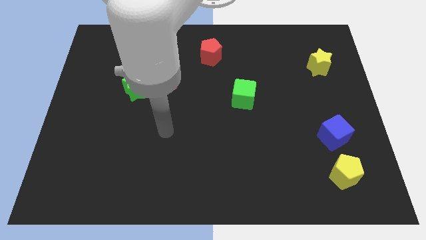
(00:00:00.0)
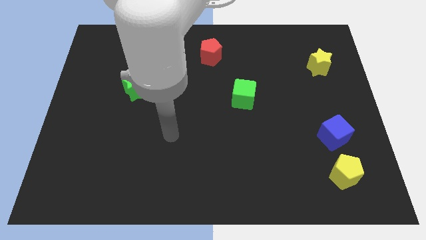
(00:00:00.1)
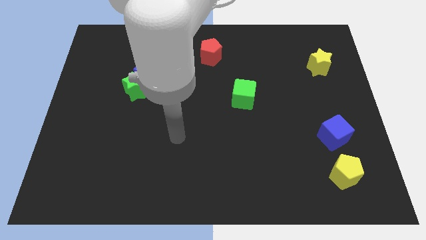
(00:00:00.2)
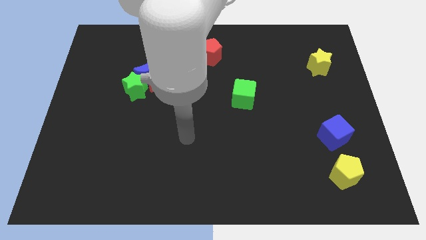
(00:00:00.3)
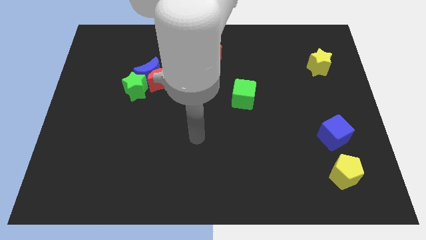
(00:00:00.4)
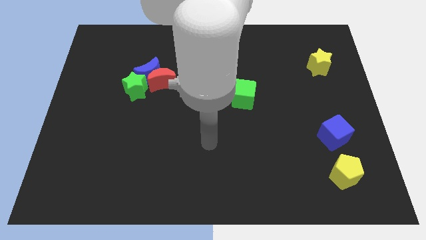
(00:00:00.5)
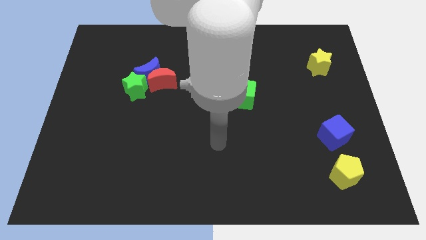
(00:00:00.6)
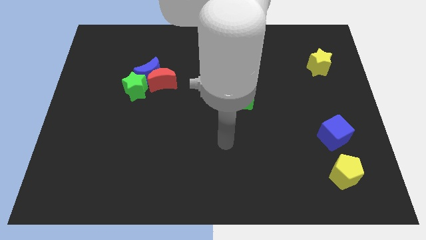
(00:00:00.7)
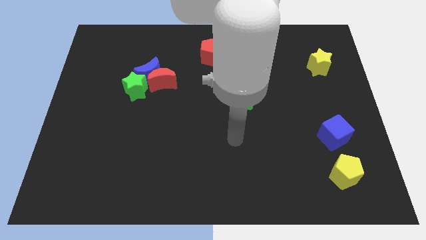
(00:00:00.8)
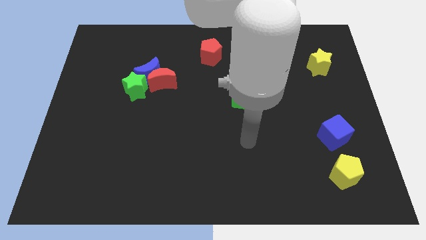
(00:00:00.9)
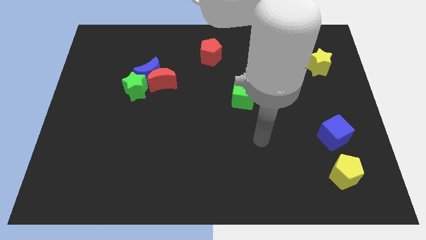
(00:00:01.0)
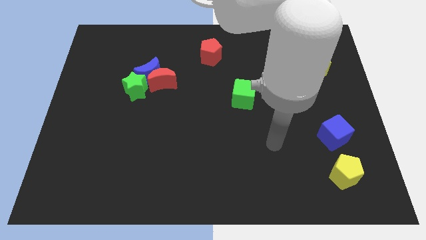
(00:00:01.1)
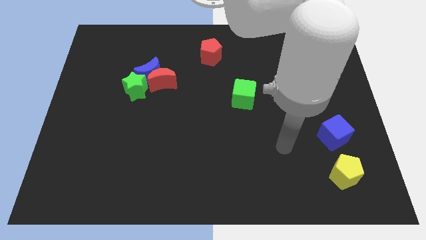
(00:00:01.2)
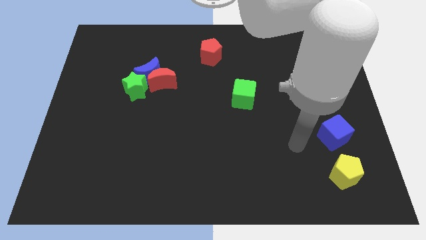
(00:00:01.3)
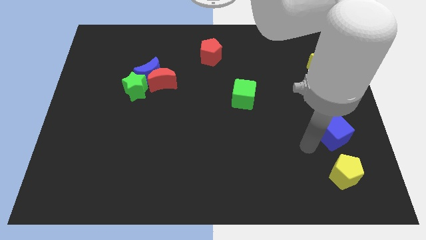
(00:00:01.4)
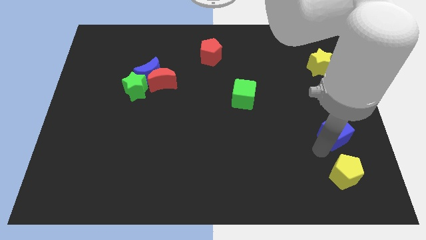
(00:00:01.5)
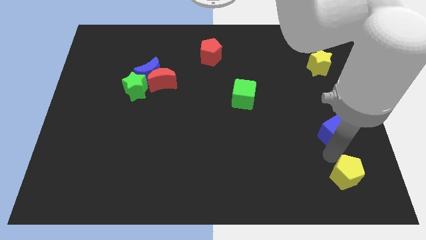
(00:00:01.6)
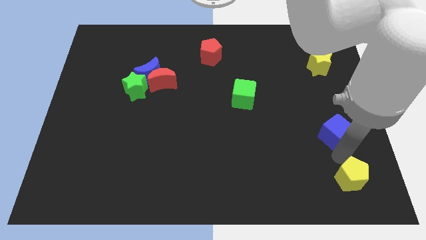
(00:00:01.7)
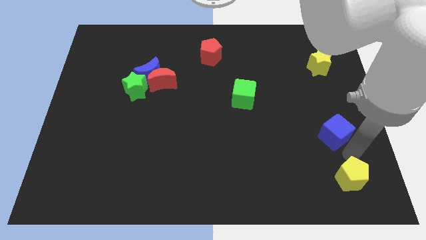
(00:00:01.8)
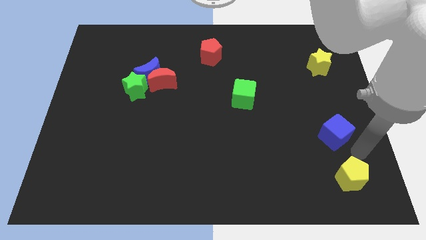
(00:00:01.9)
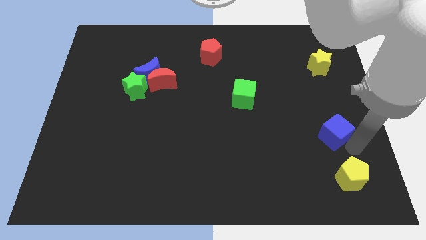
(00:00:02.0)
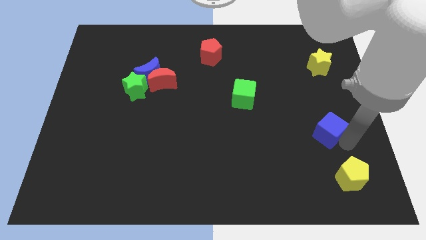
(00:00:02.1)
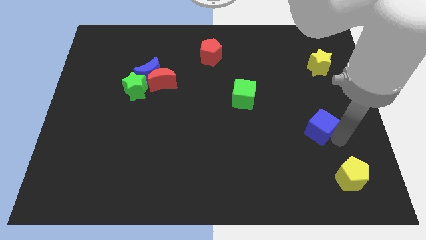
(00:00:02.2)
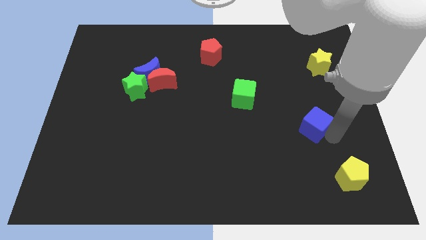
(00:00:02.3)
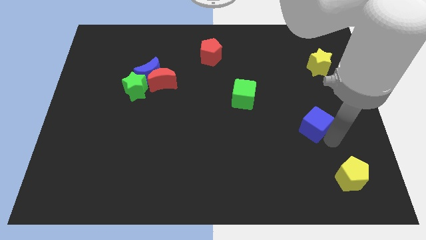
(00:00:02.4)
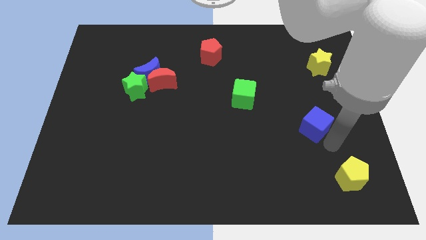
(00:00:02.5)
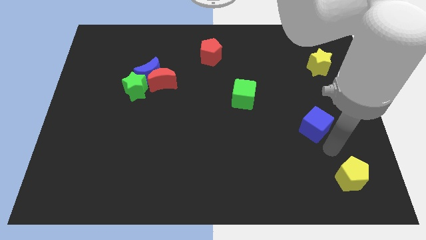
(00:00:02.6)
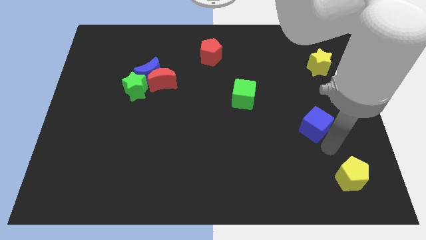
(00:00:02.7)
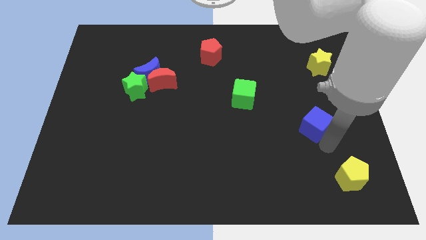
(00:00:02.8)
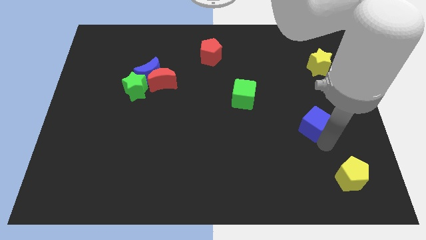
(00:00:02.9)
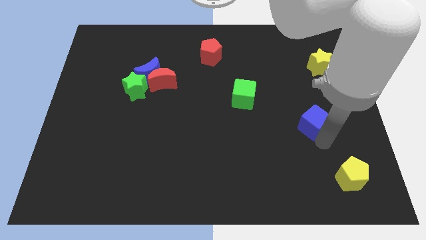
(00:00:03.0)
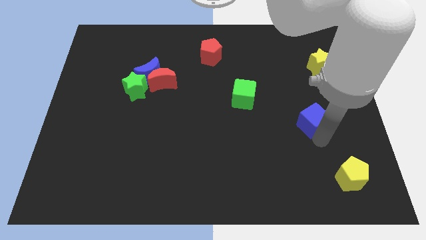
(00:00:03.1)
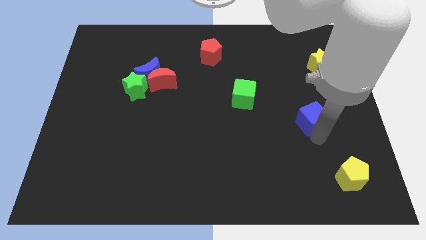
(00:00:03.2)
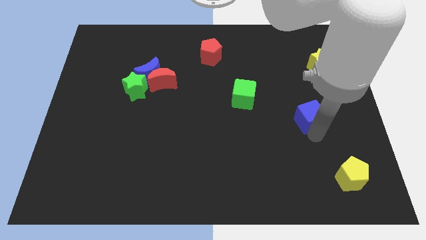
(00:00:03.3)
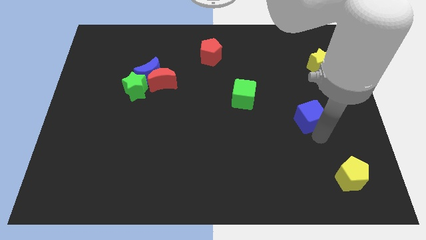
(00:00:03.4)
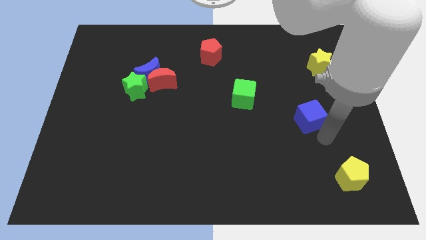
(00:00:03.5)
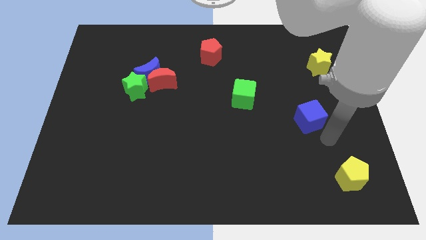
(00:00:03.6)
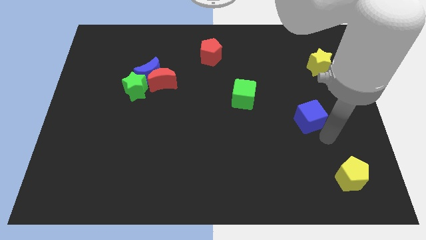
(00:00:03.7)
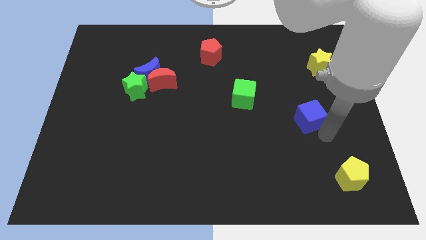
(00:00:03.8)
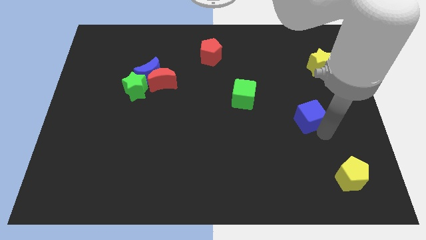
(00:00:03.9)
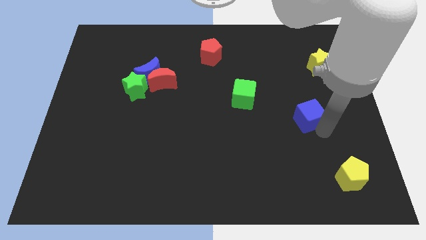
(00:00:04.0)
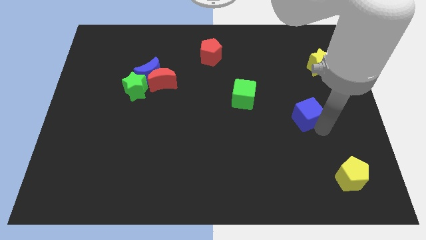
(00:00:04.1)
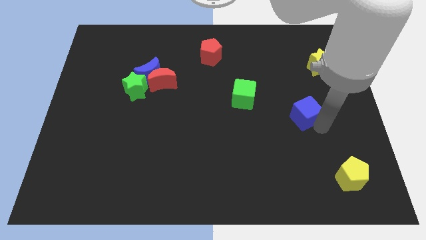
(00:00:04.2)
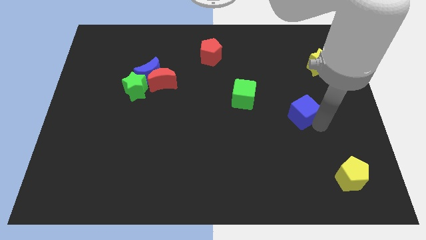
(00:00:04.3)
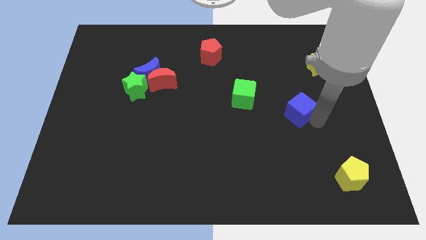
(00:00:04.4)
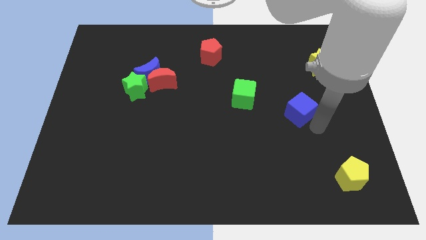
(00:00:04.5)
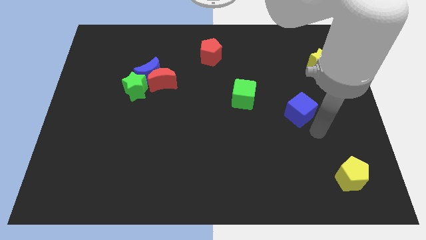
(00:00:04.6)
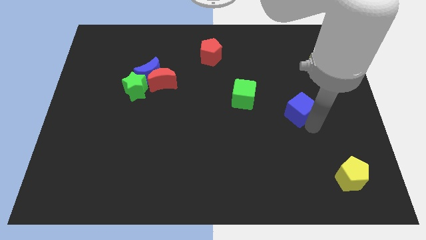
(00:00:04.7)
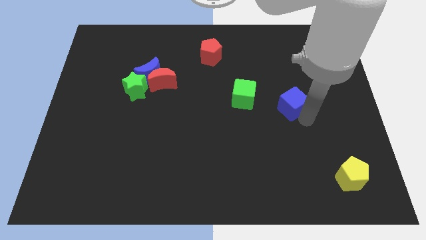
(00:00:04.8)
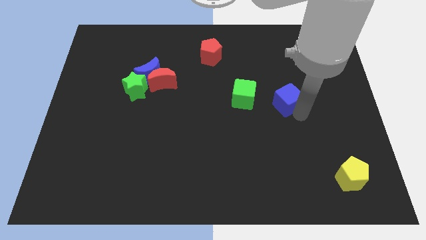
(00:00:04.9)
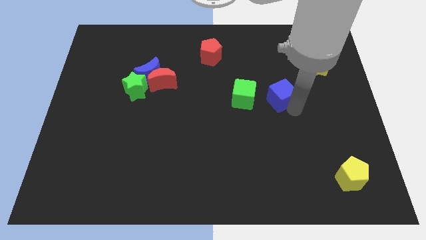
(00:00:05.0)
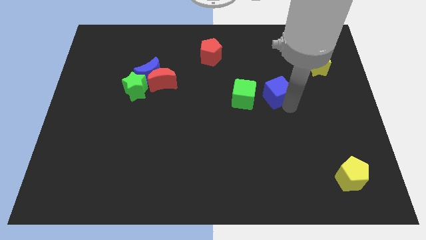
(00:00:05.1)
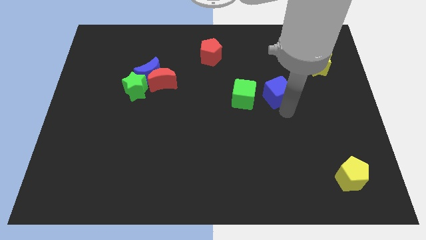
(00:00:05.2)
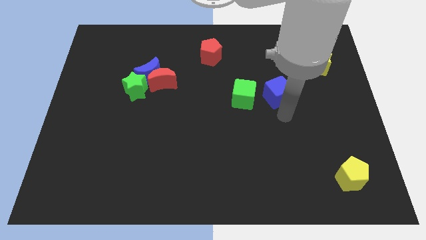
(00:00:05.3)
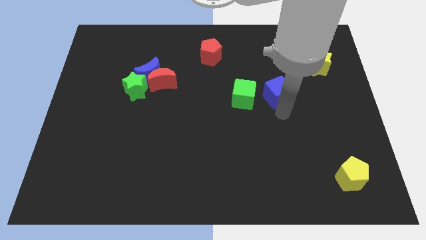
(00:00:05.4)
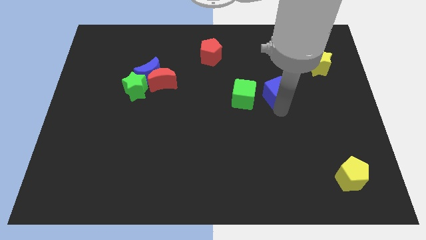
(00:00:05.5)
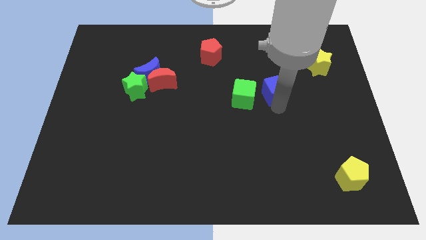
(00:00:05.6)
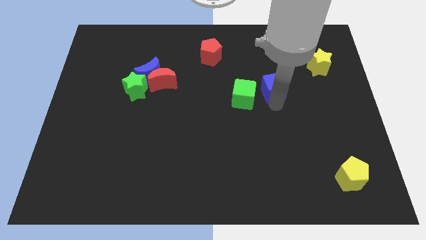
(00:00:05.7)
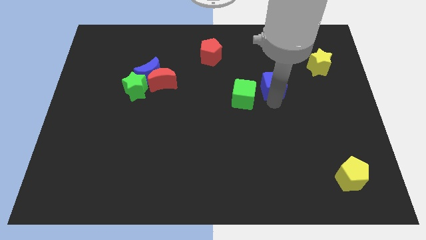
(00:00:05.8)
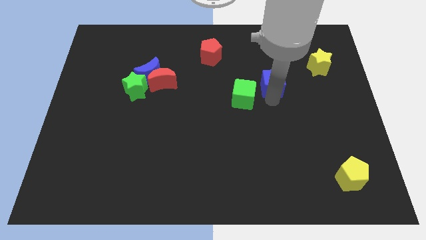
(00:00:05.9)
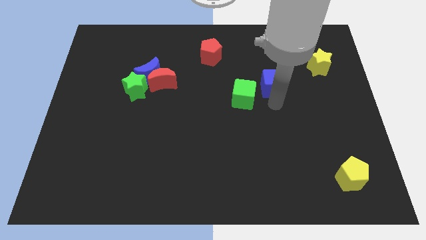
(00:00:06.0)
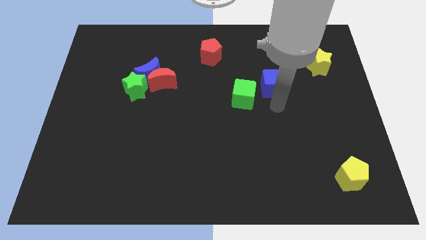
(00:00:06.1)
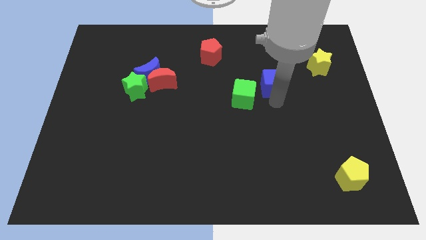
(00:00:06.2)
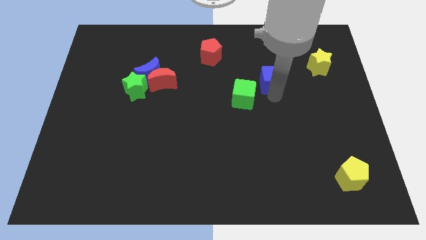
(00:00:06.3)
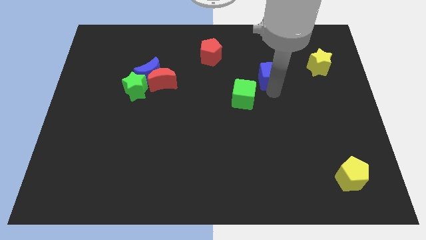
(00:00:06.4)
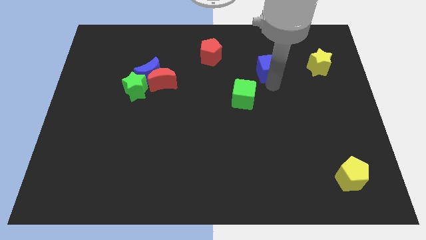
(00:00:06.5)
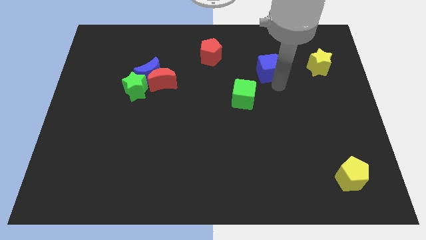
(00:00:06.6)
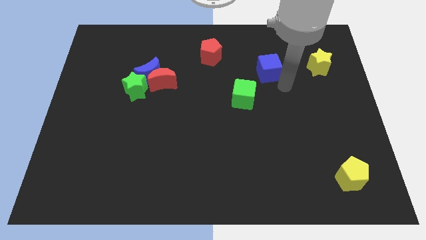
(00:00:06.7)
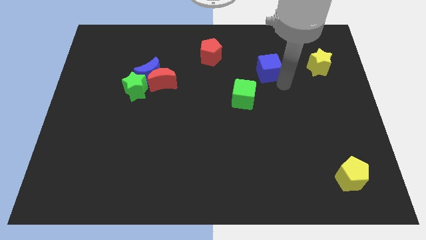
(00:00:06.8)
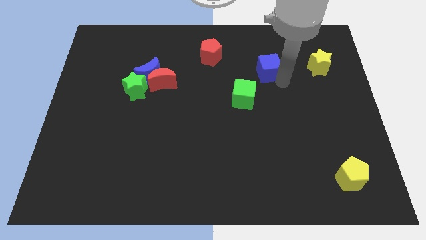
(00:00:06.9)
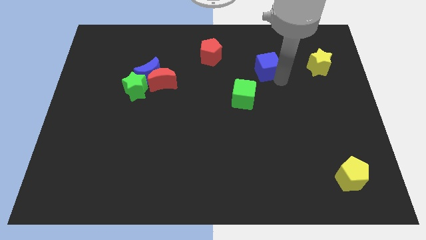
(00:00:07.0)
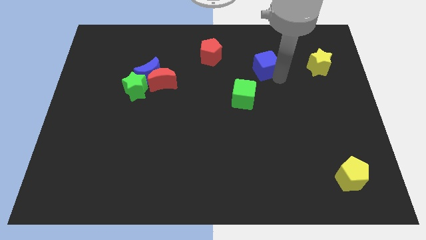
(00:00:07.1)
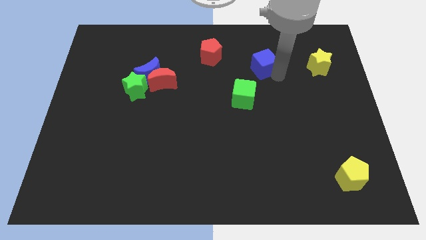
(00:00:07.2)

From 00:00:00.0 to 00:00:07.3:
put the blue cube just right of the red pentagon
